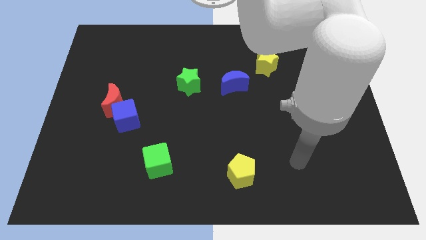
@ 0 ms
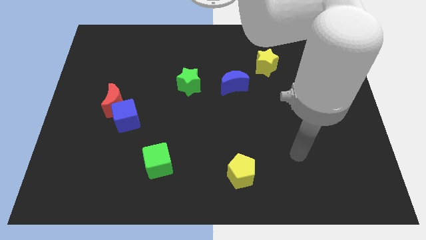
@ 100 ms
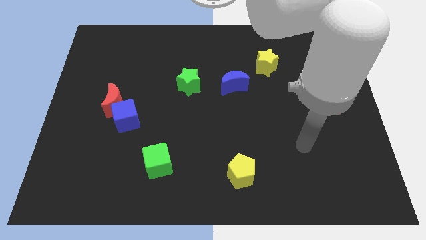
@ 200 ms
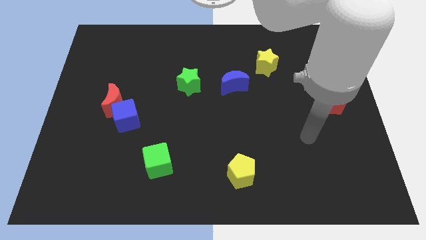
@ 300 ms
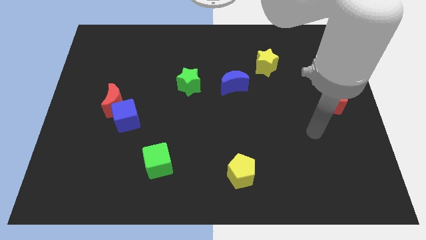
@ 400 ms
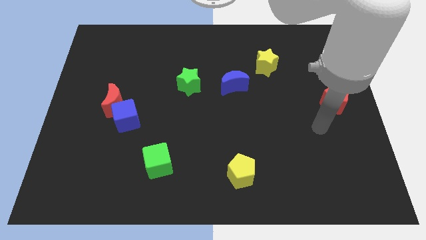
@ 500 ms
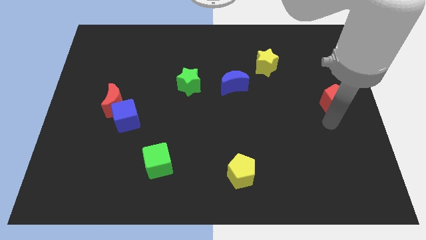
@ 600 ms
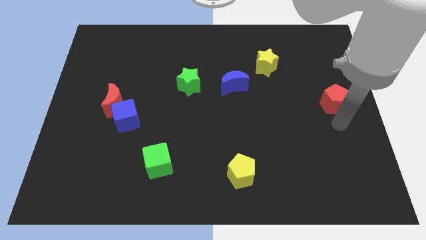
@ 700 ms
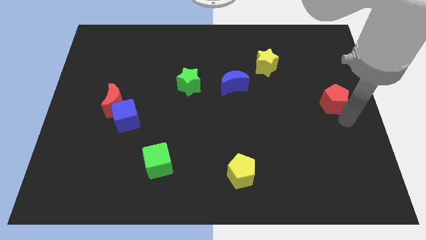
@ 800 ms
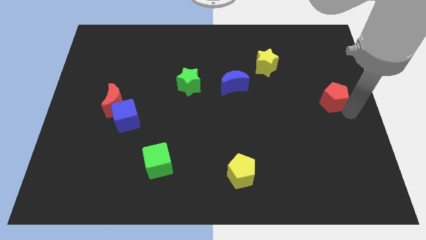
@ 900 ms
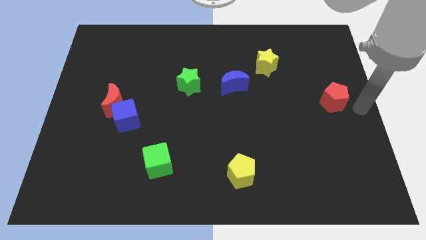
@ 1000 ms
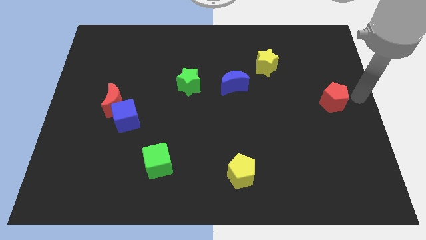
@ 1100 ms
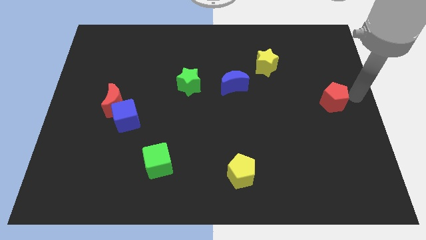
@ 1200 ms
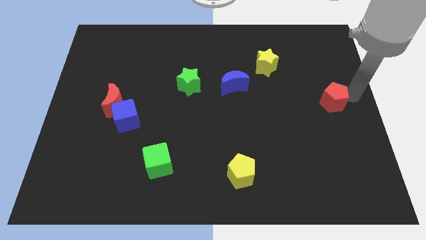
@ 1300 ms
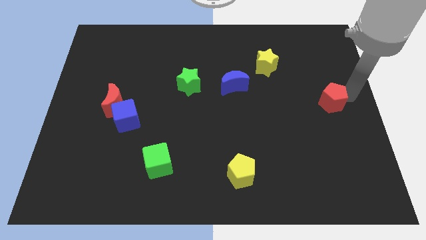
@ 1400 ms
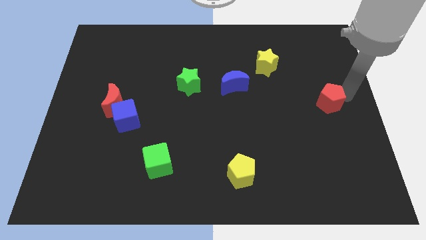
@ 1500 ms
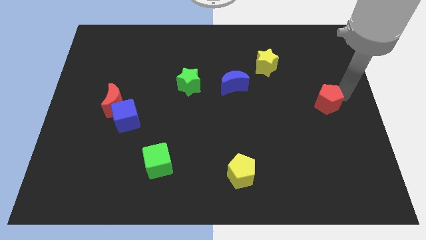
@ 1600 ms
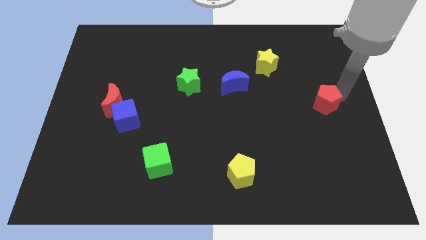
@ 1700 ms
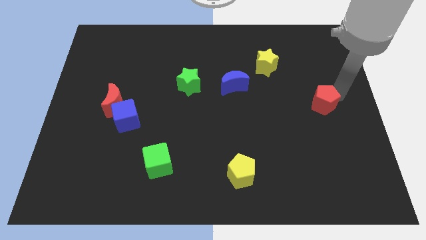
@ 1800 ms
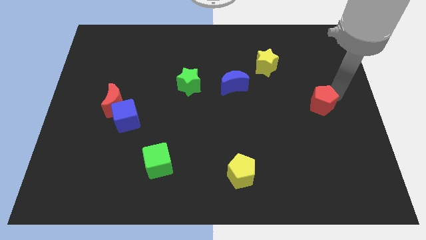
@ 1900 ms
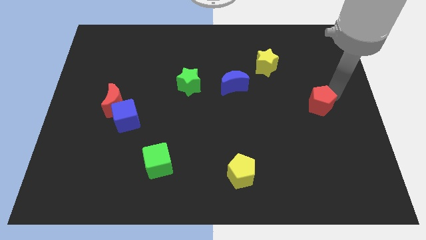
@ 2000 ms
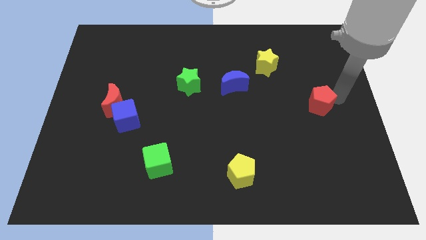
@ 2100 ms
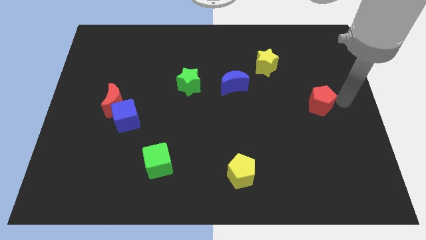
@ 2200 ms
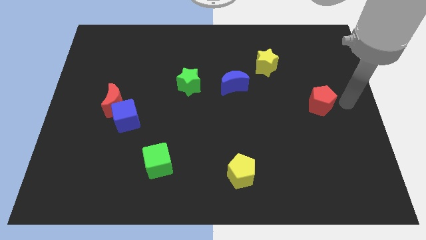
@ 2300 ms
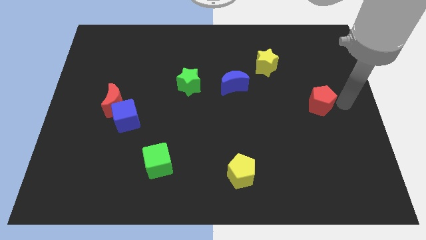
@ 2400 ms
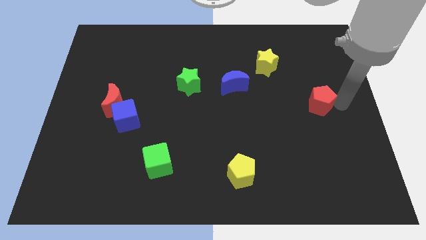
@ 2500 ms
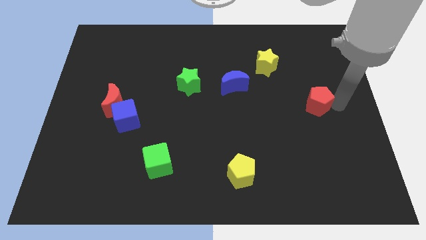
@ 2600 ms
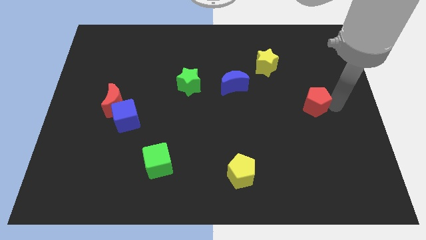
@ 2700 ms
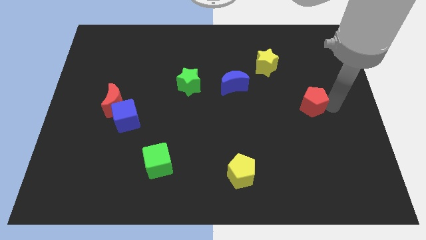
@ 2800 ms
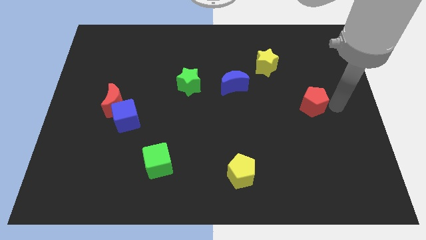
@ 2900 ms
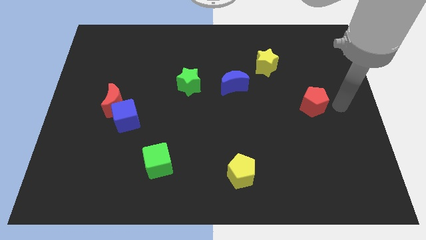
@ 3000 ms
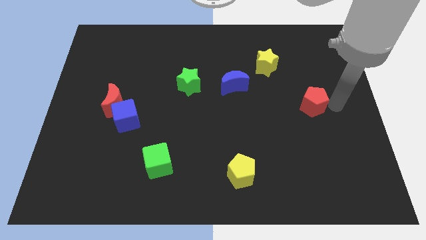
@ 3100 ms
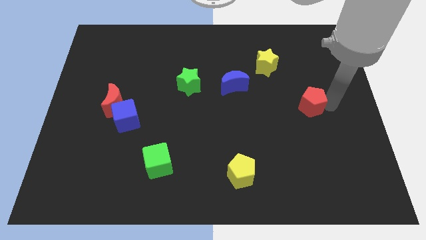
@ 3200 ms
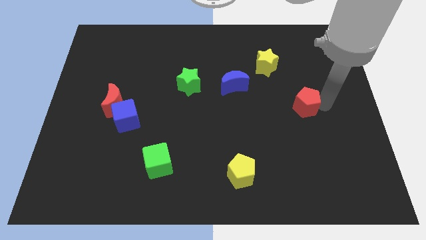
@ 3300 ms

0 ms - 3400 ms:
slide the red pentagon a little bit left

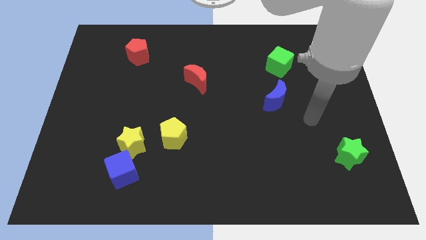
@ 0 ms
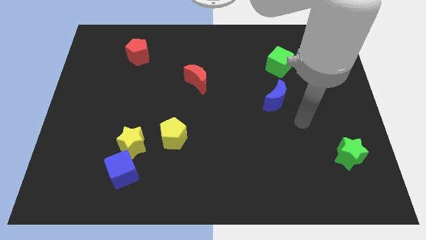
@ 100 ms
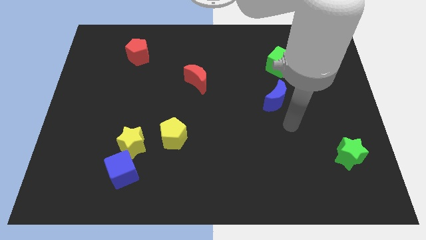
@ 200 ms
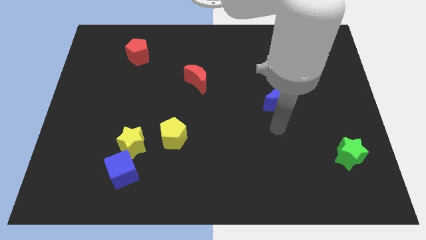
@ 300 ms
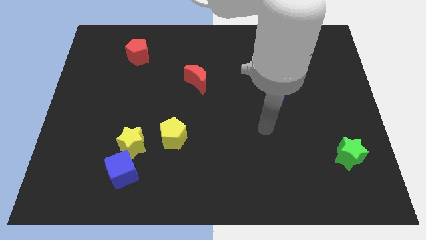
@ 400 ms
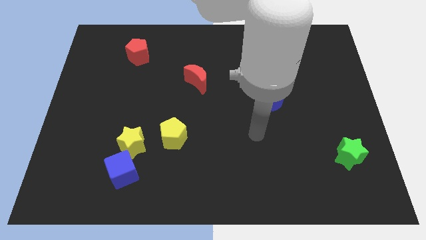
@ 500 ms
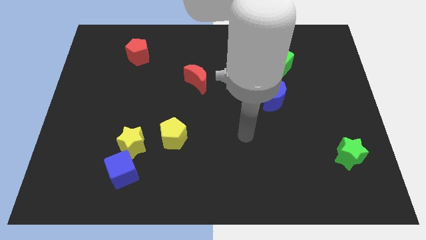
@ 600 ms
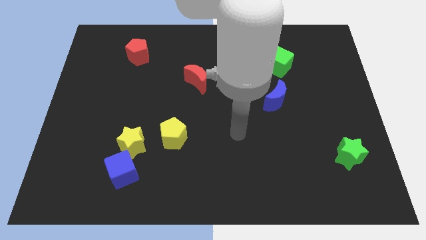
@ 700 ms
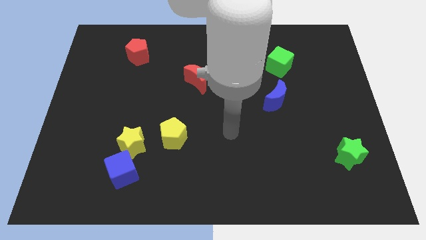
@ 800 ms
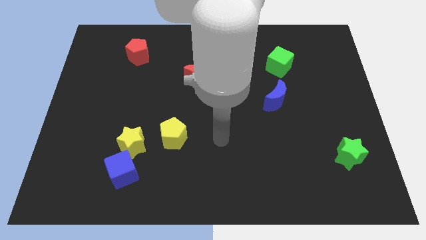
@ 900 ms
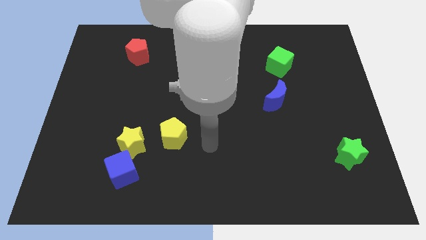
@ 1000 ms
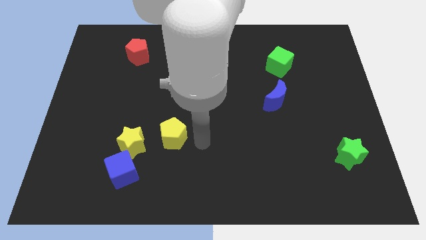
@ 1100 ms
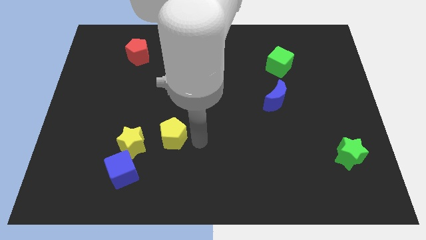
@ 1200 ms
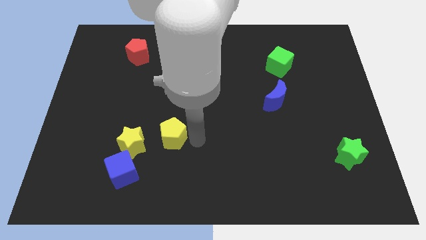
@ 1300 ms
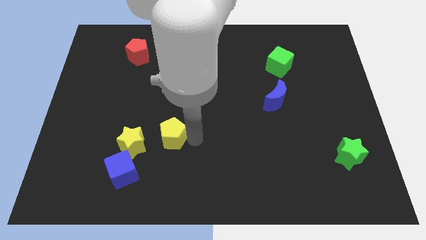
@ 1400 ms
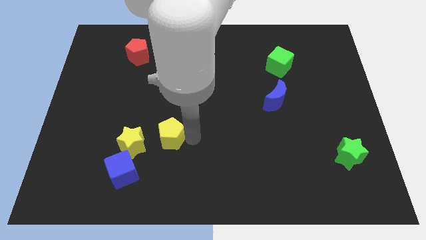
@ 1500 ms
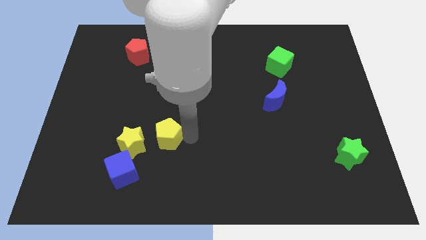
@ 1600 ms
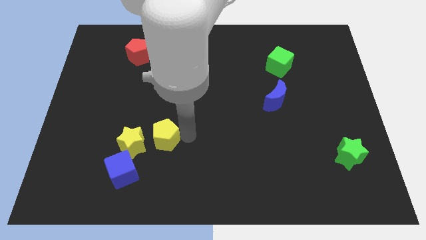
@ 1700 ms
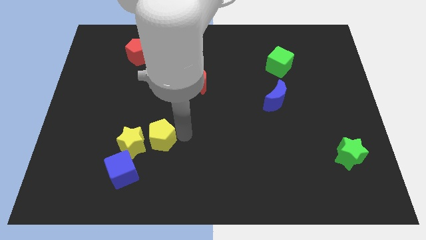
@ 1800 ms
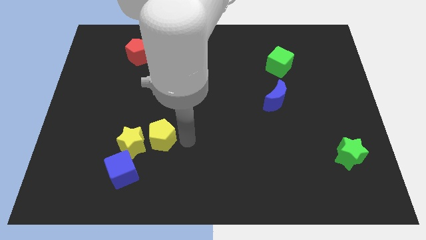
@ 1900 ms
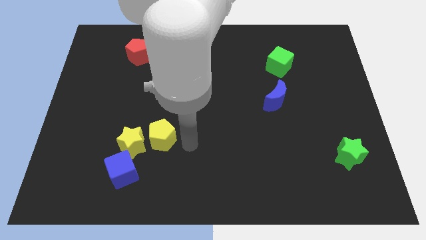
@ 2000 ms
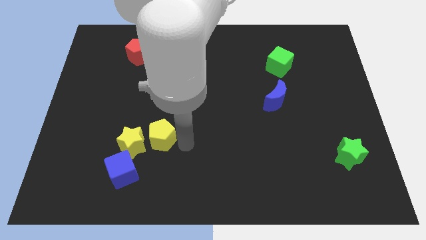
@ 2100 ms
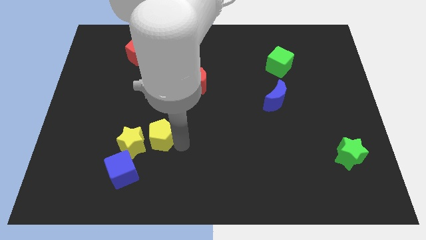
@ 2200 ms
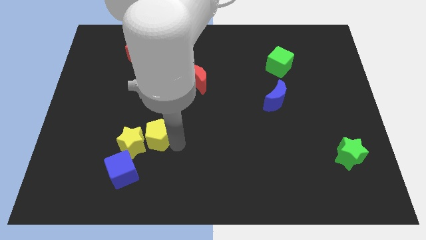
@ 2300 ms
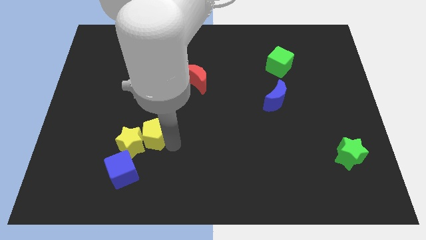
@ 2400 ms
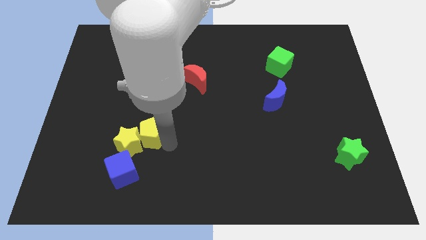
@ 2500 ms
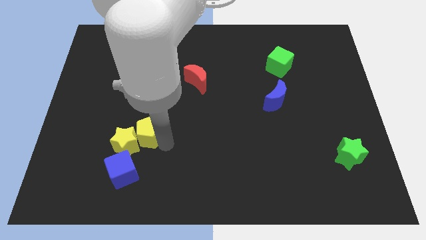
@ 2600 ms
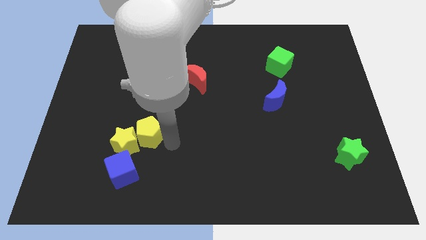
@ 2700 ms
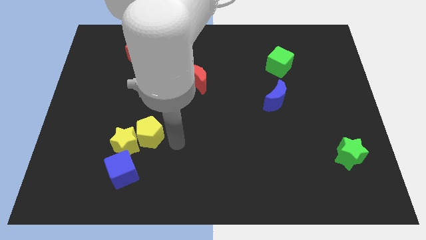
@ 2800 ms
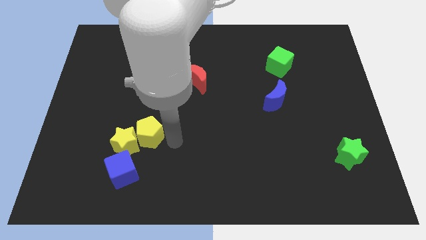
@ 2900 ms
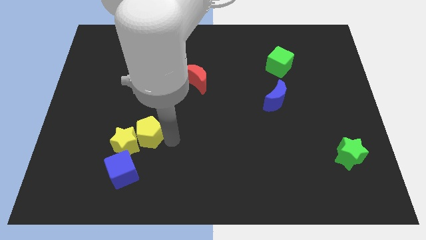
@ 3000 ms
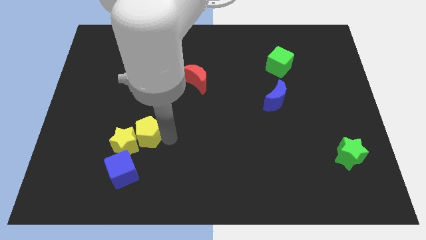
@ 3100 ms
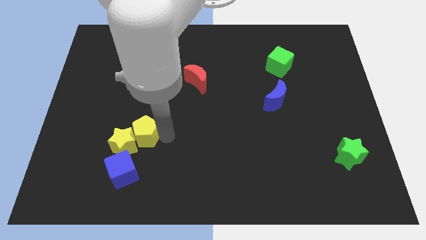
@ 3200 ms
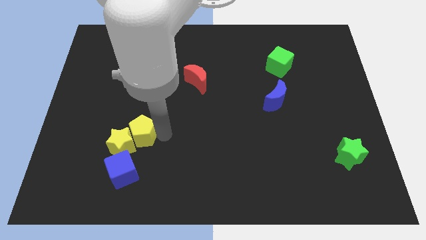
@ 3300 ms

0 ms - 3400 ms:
slightly slide the yellow pentagon to the left

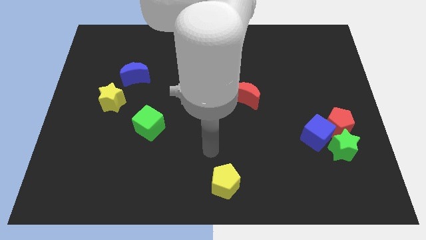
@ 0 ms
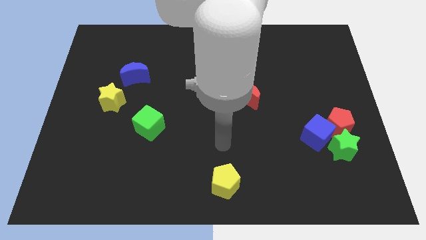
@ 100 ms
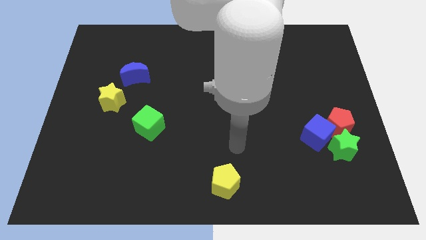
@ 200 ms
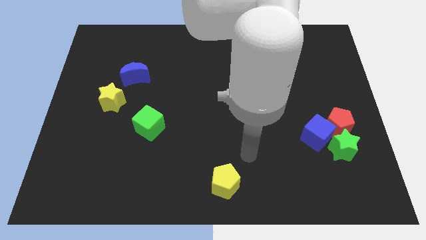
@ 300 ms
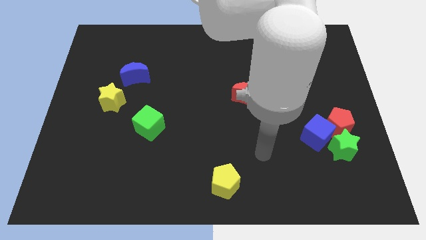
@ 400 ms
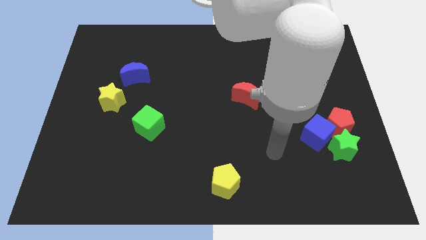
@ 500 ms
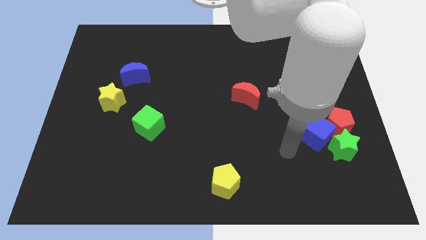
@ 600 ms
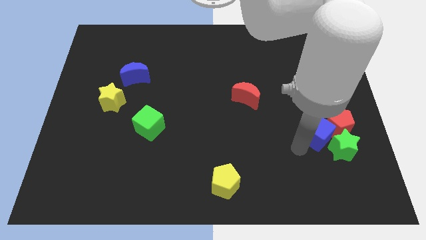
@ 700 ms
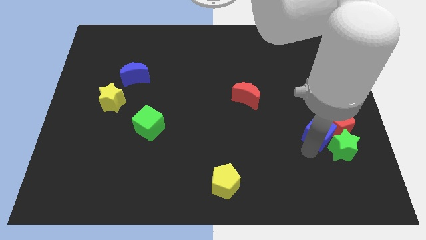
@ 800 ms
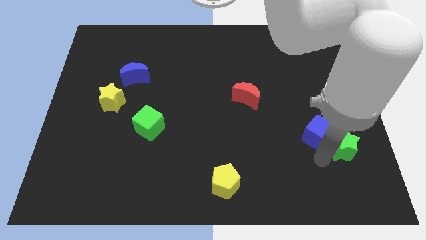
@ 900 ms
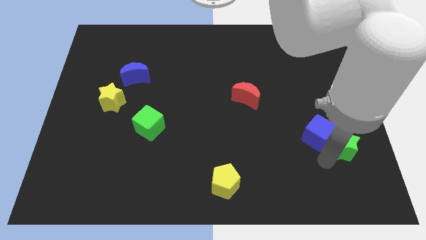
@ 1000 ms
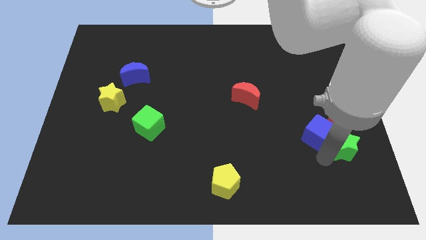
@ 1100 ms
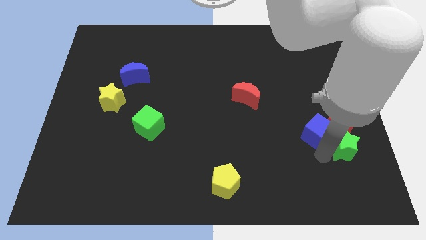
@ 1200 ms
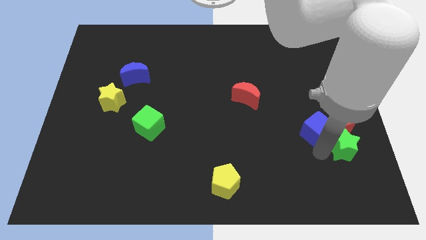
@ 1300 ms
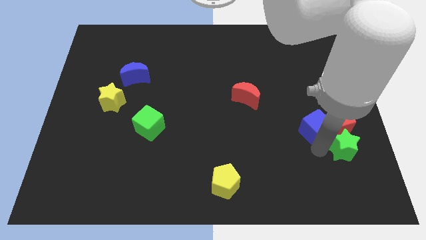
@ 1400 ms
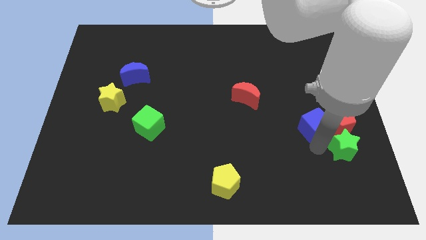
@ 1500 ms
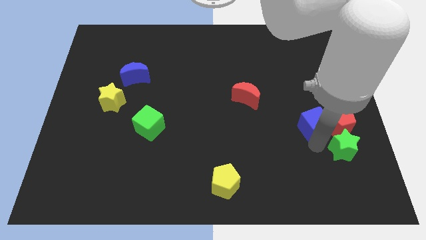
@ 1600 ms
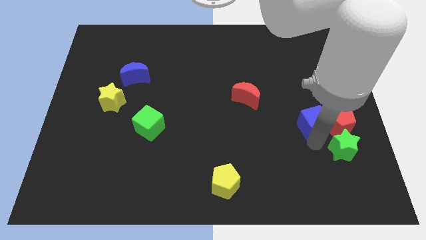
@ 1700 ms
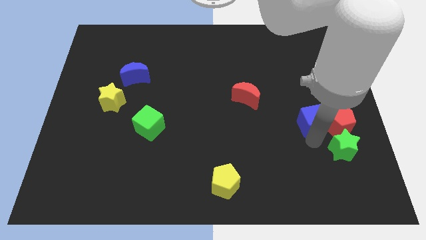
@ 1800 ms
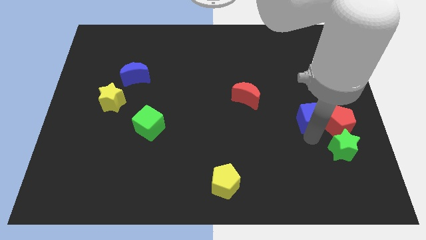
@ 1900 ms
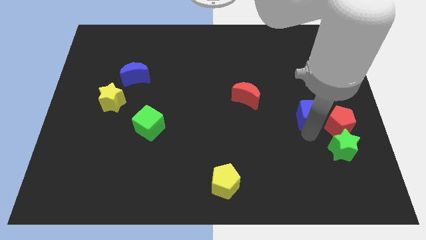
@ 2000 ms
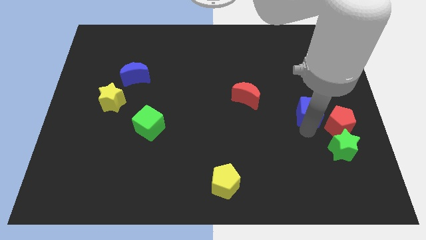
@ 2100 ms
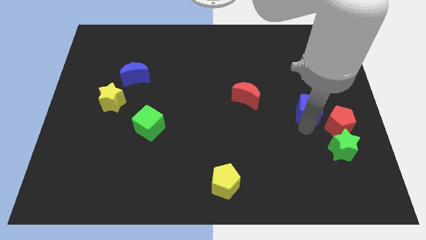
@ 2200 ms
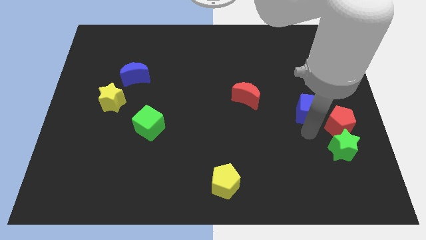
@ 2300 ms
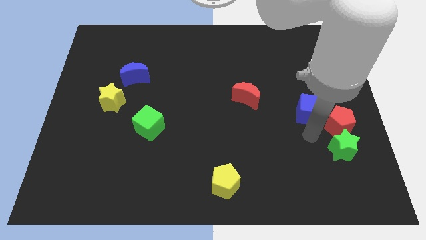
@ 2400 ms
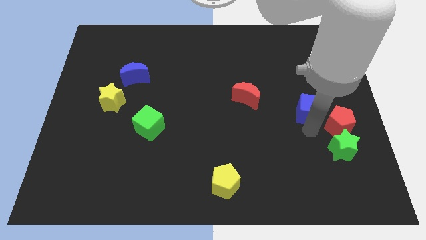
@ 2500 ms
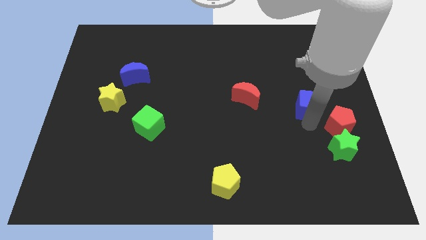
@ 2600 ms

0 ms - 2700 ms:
slightly push the blue cube upwards
